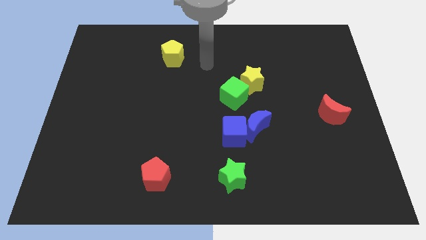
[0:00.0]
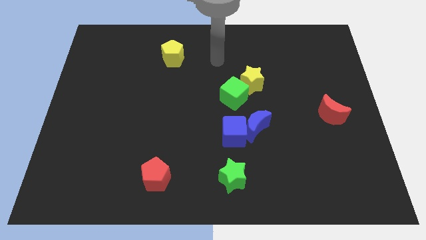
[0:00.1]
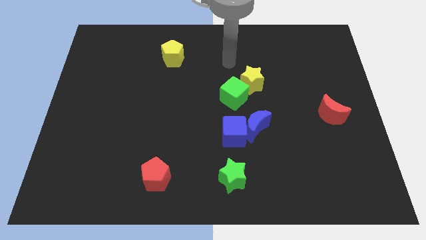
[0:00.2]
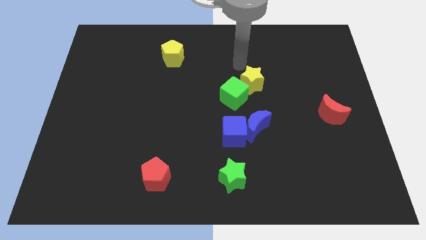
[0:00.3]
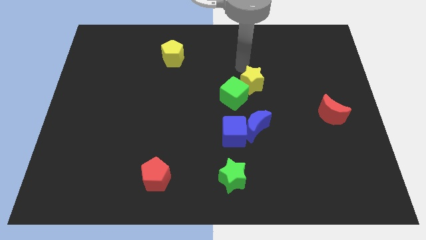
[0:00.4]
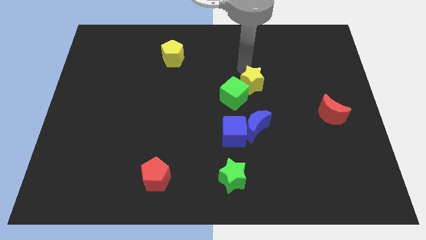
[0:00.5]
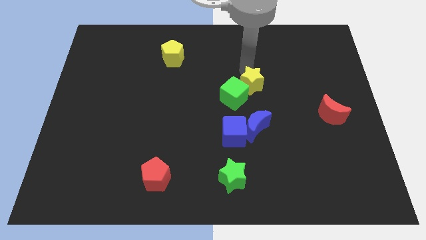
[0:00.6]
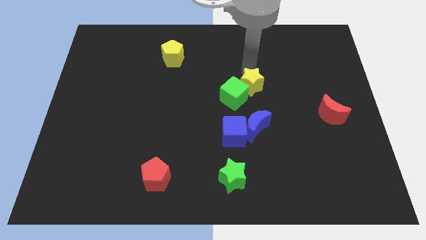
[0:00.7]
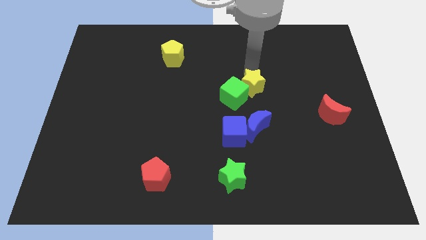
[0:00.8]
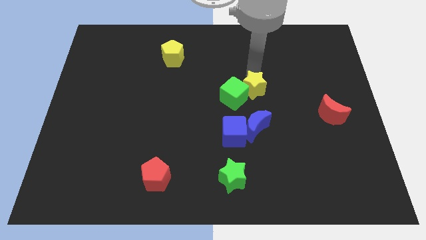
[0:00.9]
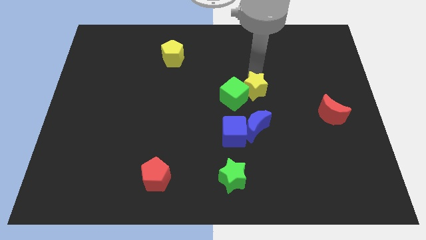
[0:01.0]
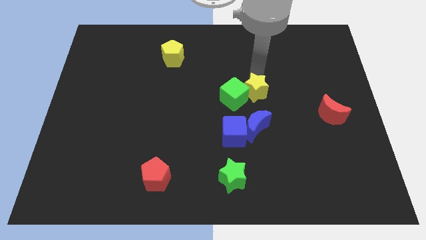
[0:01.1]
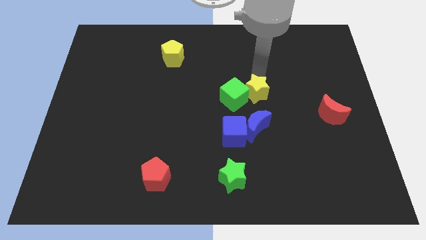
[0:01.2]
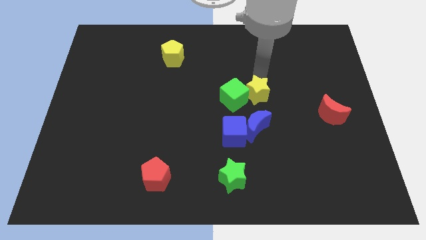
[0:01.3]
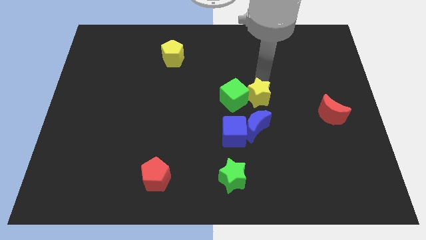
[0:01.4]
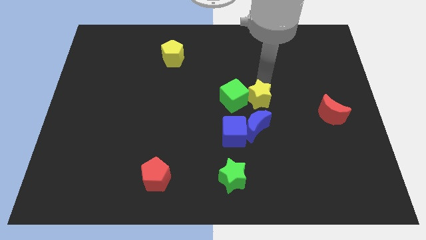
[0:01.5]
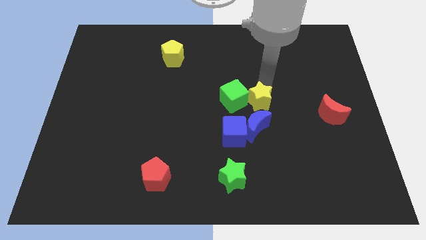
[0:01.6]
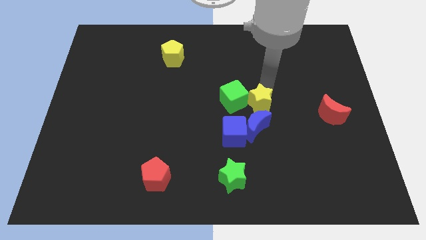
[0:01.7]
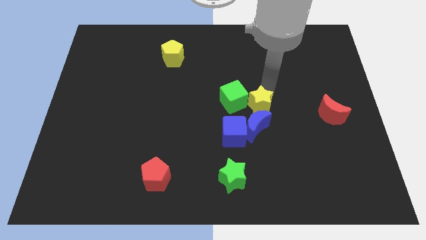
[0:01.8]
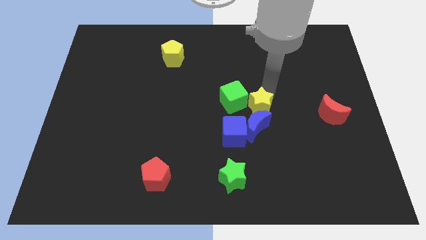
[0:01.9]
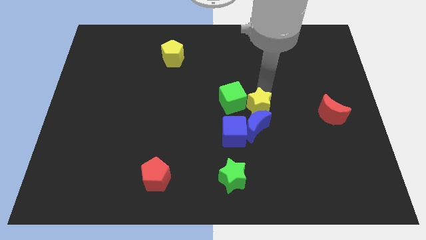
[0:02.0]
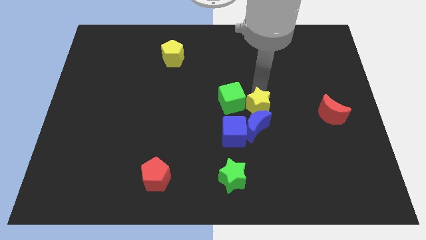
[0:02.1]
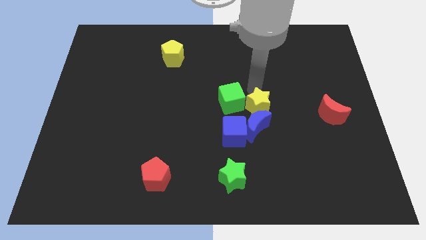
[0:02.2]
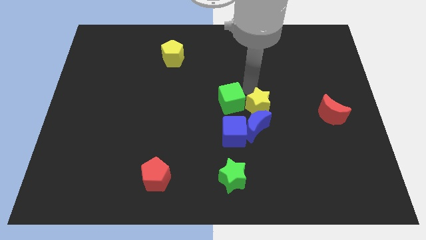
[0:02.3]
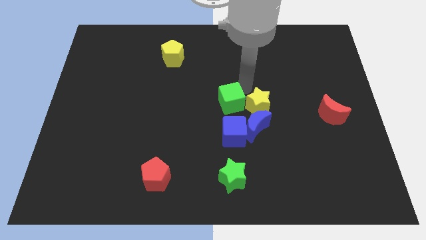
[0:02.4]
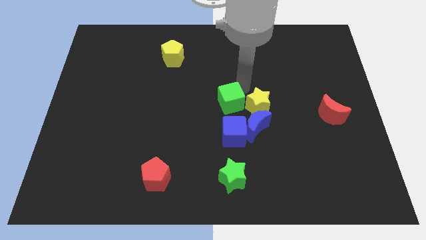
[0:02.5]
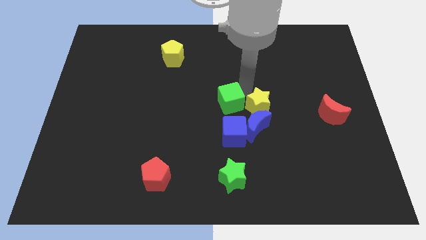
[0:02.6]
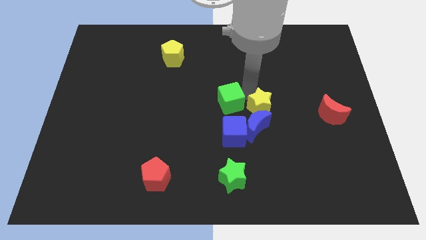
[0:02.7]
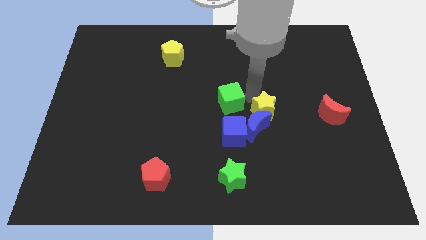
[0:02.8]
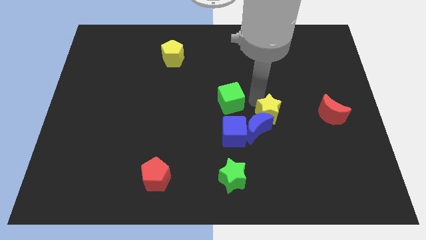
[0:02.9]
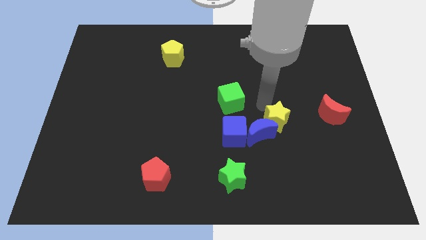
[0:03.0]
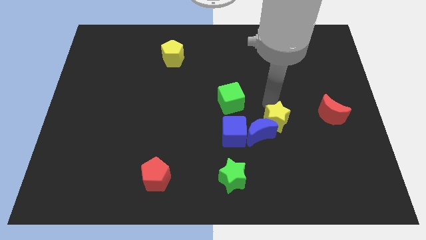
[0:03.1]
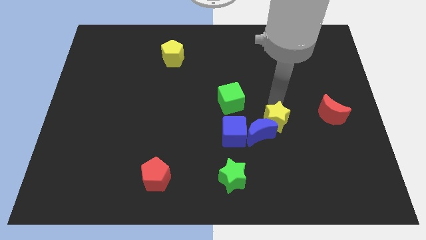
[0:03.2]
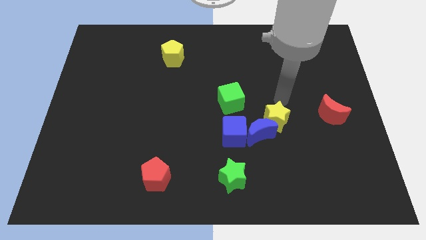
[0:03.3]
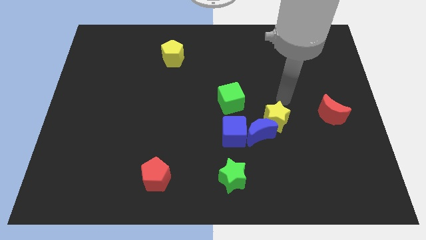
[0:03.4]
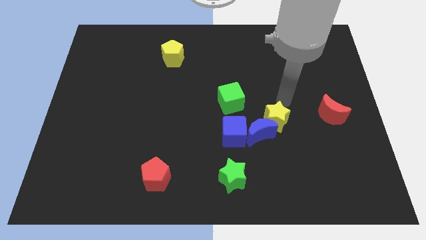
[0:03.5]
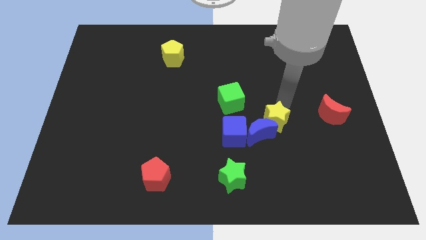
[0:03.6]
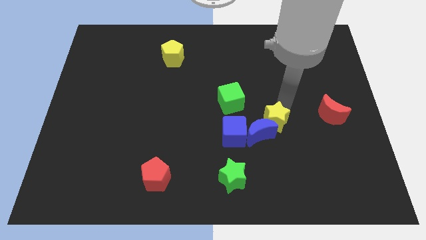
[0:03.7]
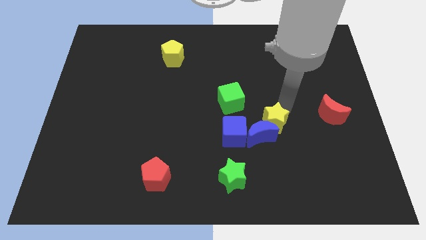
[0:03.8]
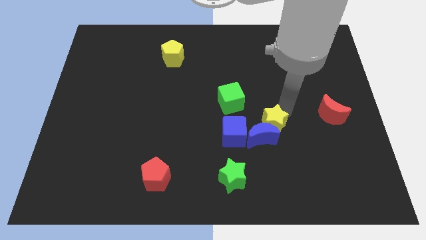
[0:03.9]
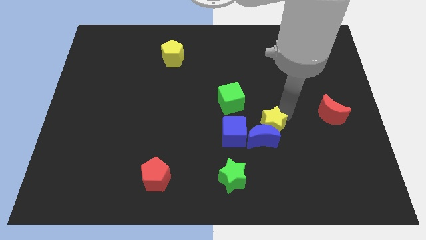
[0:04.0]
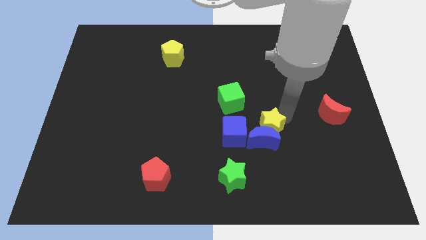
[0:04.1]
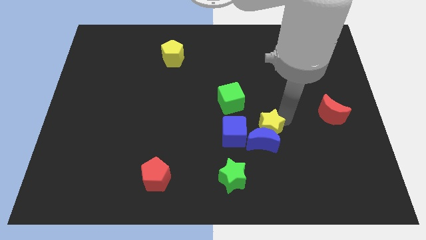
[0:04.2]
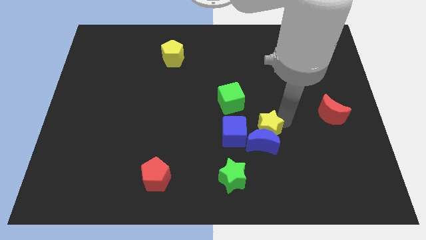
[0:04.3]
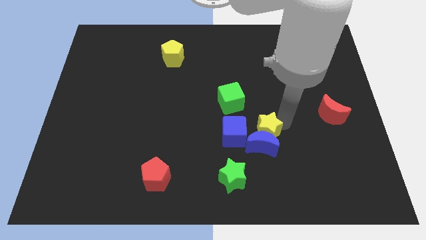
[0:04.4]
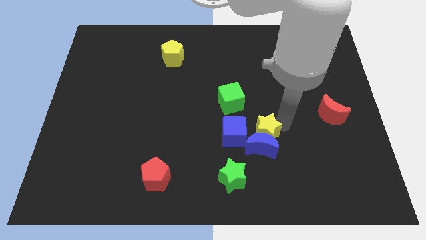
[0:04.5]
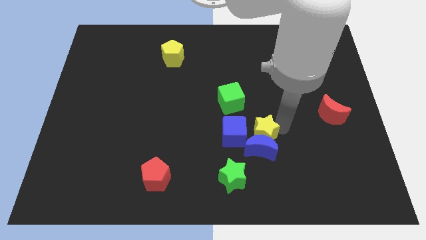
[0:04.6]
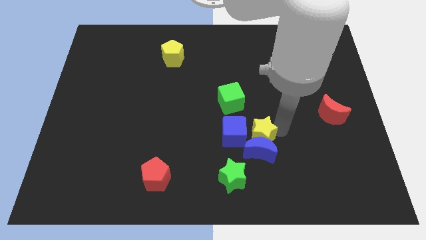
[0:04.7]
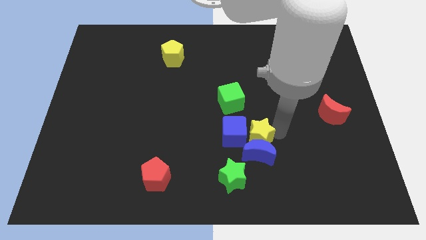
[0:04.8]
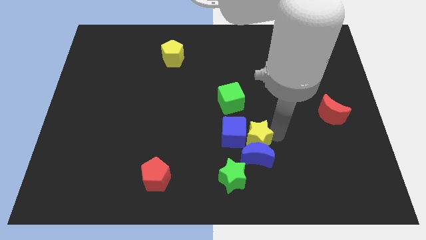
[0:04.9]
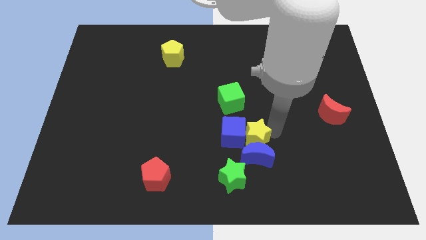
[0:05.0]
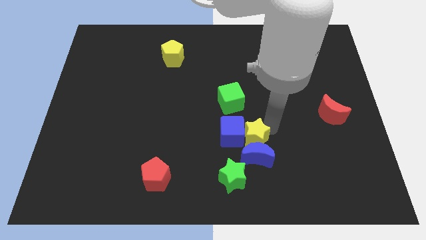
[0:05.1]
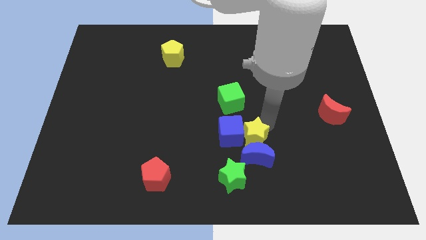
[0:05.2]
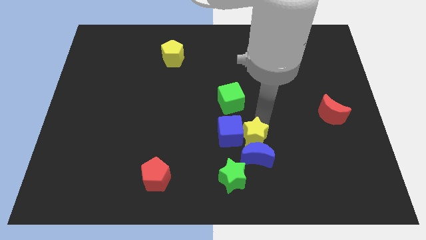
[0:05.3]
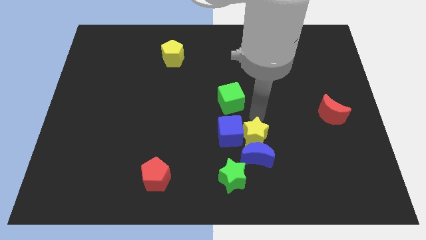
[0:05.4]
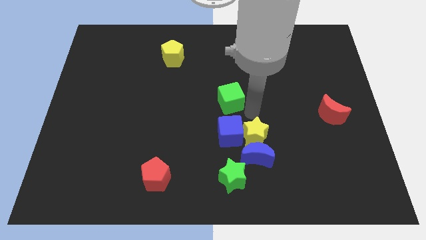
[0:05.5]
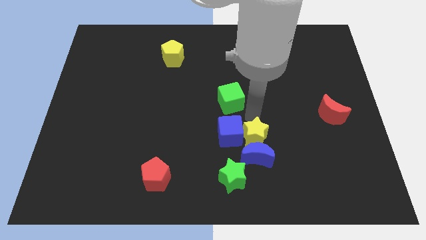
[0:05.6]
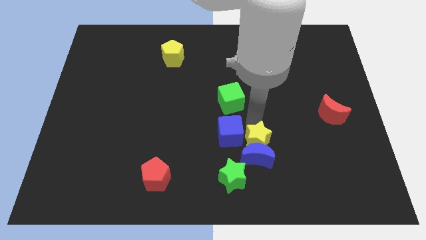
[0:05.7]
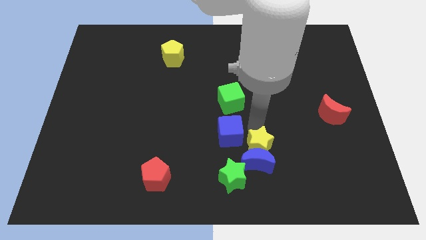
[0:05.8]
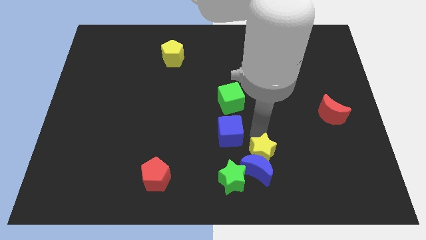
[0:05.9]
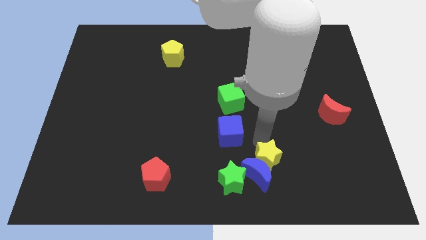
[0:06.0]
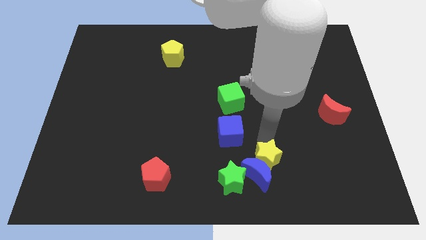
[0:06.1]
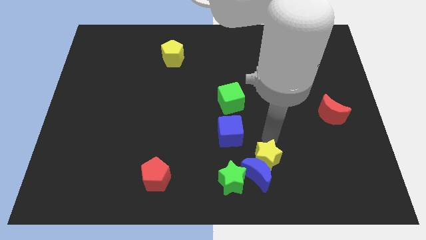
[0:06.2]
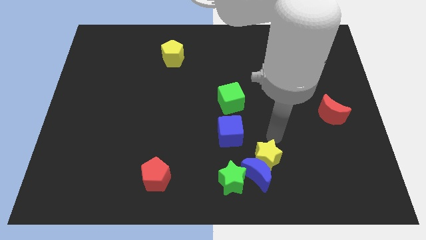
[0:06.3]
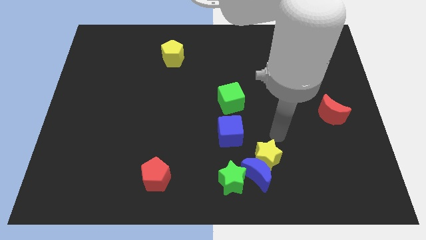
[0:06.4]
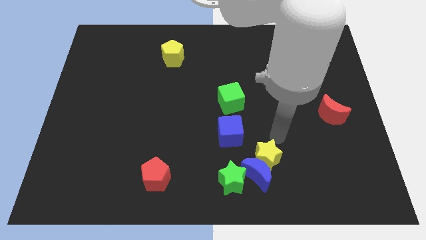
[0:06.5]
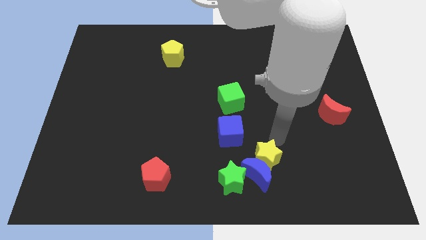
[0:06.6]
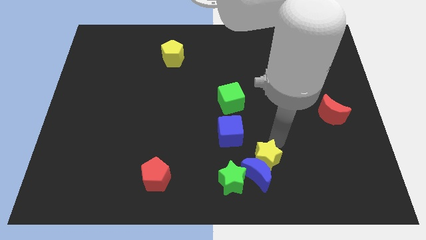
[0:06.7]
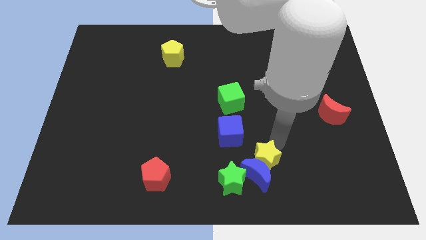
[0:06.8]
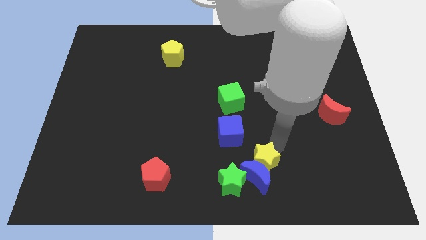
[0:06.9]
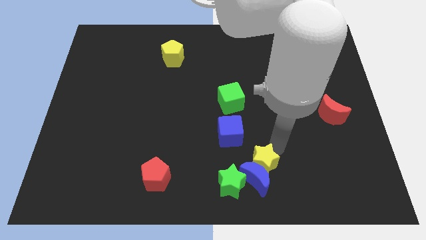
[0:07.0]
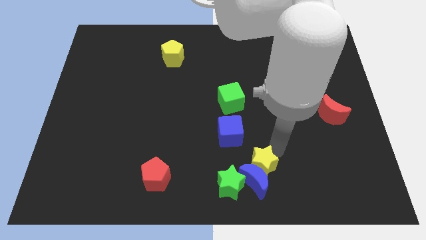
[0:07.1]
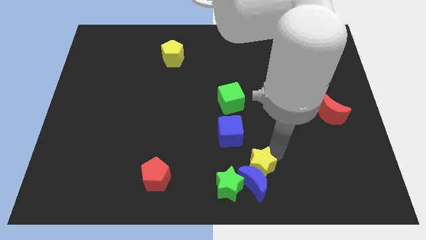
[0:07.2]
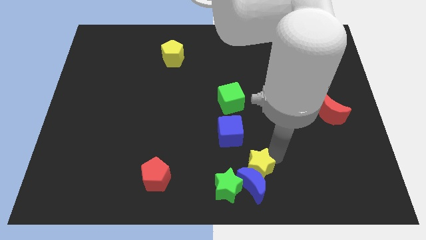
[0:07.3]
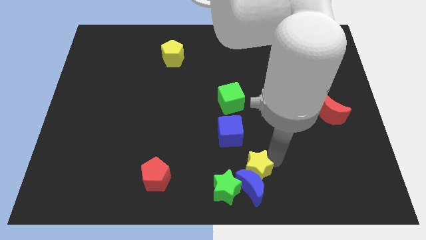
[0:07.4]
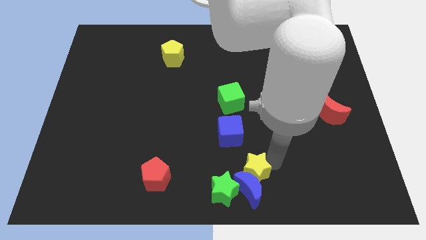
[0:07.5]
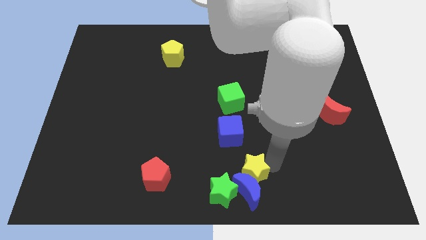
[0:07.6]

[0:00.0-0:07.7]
slide the yellow star to the bottom side of the blue cube

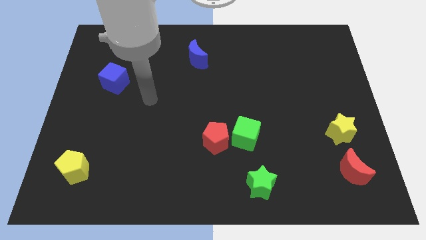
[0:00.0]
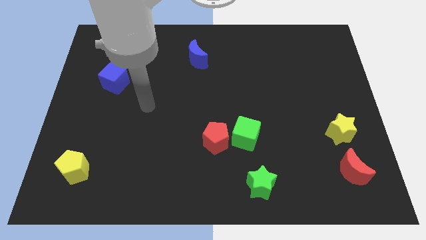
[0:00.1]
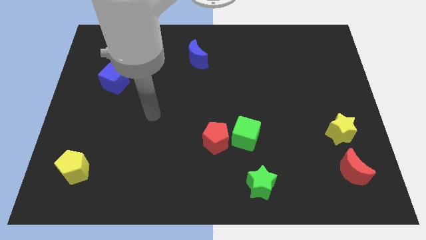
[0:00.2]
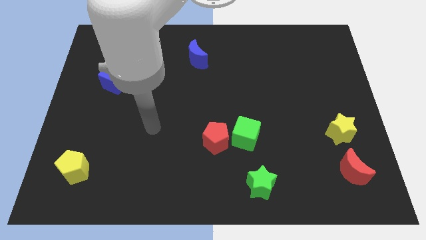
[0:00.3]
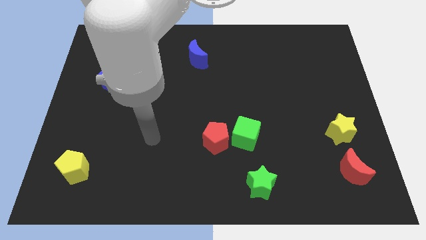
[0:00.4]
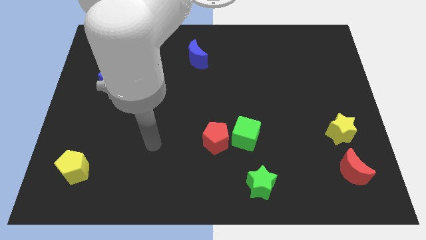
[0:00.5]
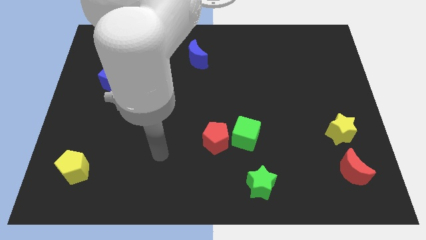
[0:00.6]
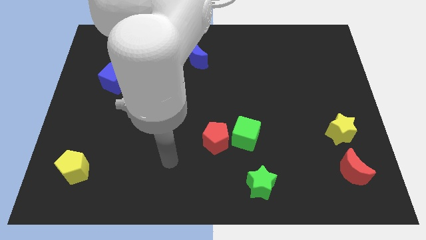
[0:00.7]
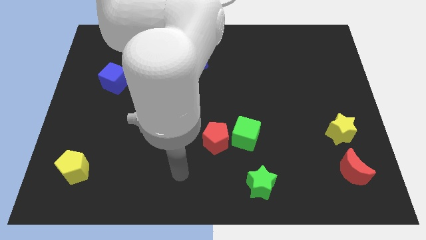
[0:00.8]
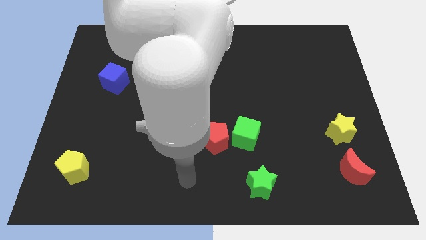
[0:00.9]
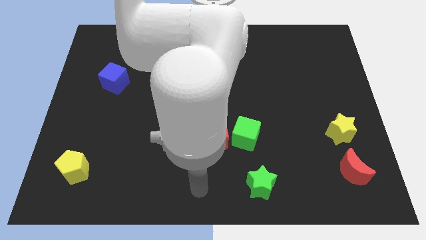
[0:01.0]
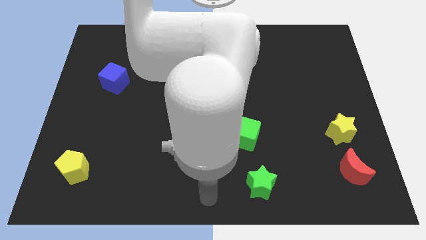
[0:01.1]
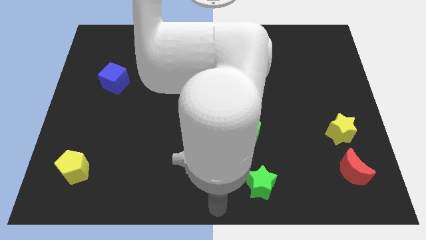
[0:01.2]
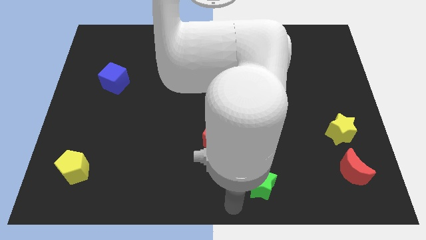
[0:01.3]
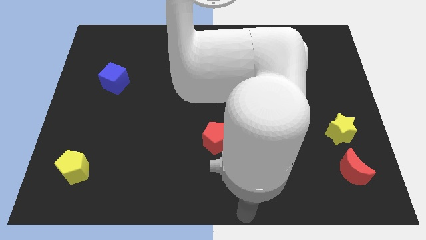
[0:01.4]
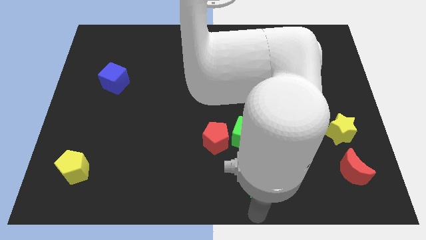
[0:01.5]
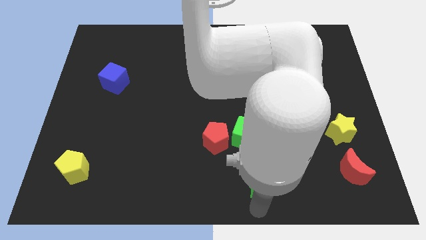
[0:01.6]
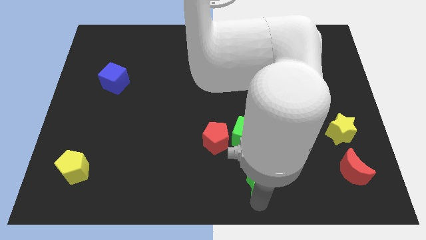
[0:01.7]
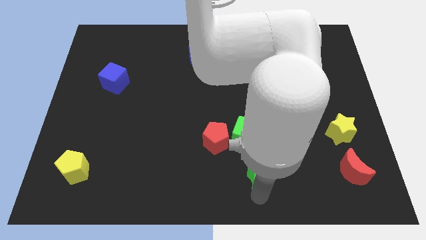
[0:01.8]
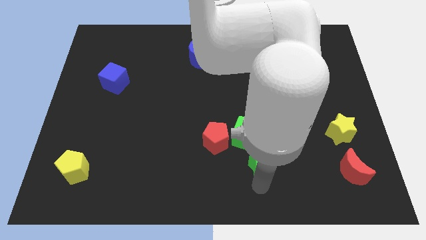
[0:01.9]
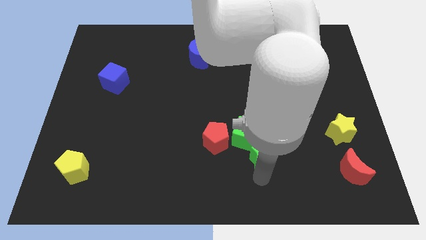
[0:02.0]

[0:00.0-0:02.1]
slide the green star right of the red pentagon
